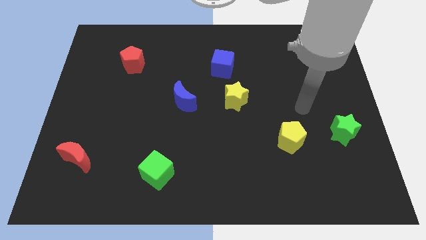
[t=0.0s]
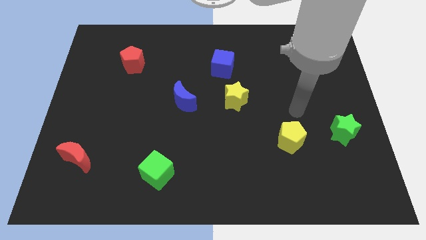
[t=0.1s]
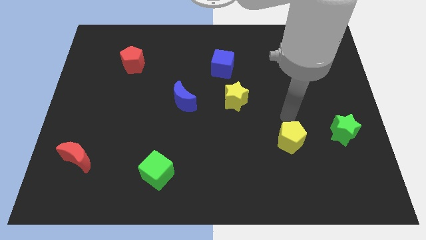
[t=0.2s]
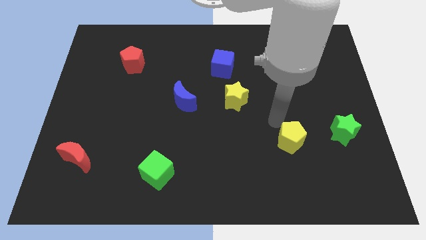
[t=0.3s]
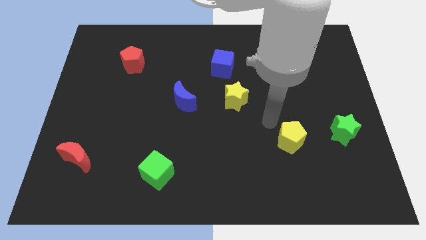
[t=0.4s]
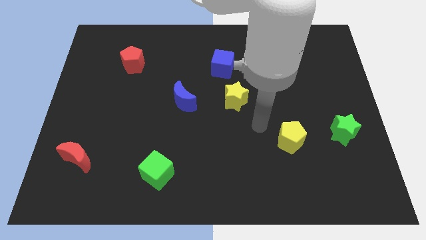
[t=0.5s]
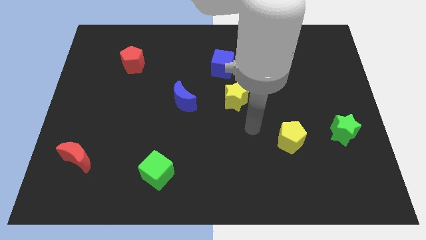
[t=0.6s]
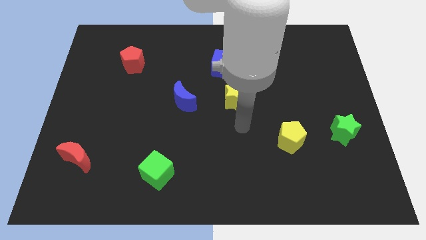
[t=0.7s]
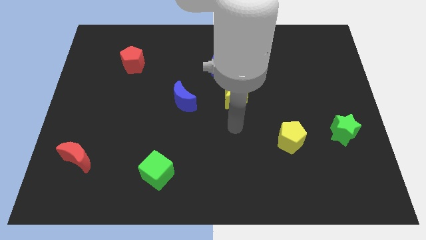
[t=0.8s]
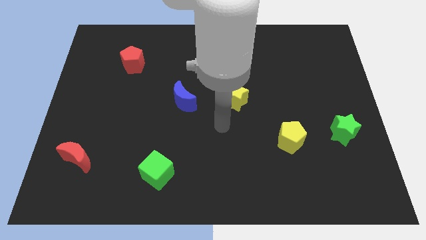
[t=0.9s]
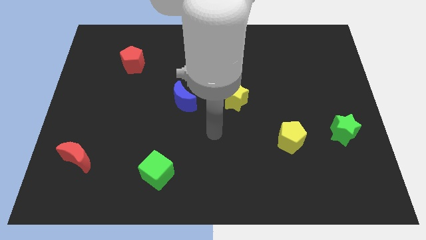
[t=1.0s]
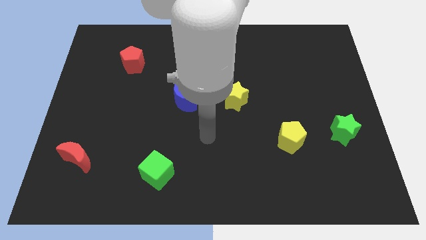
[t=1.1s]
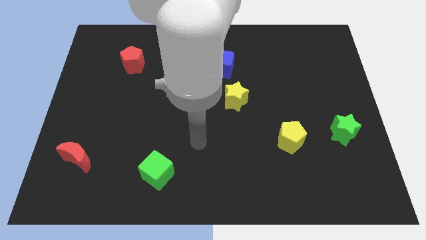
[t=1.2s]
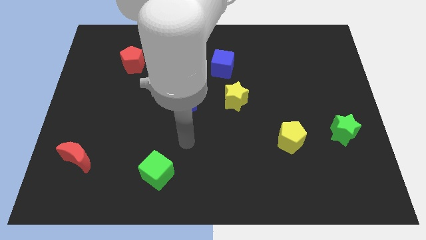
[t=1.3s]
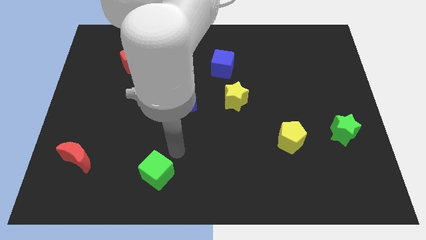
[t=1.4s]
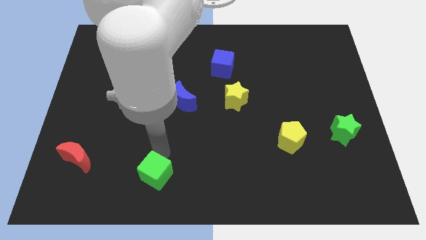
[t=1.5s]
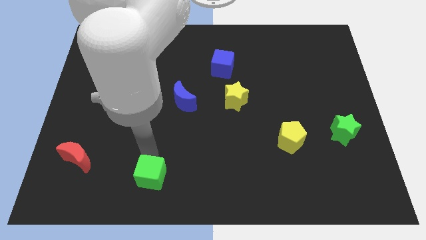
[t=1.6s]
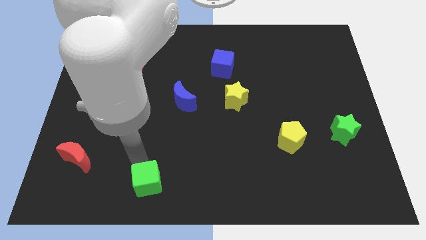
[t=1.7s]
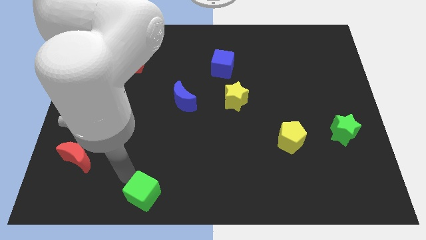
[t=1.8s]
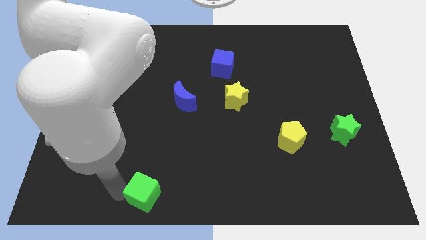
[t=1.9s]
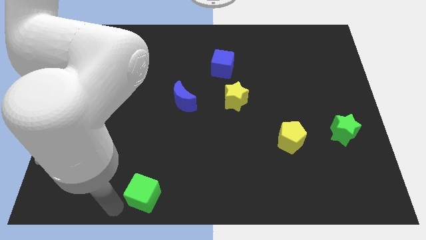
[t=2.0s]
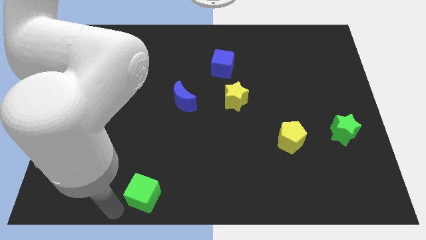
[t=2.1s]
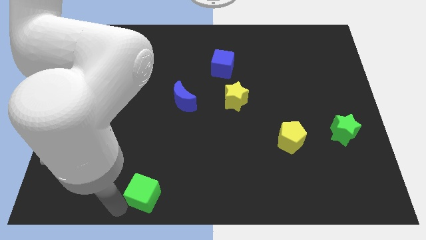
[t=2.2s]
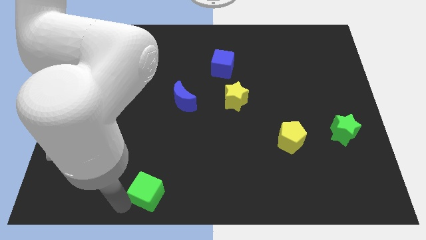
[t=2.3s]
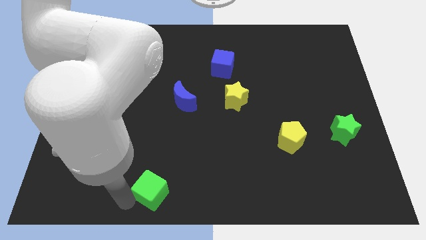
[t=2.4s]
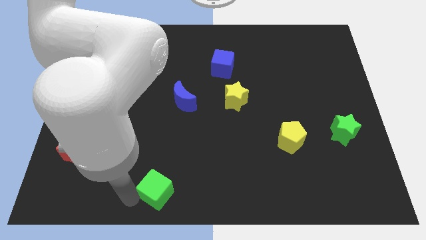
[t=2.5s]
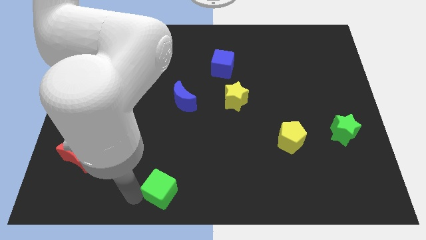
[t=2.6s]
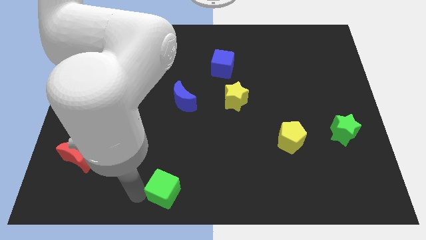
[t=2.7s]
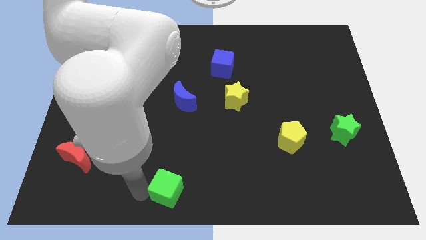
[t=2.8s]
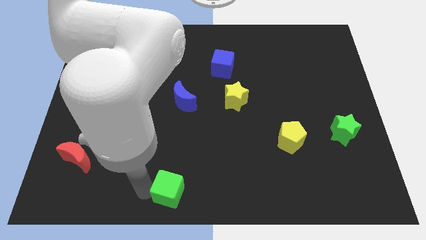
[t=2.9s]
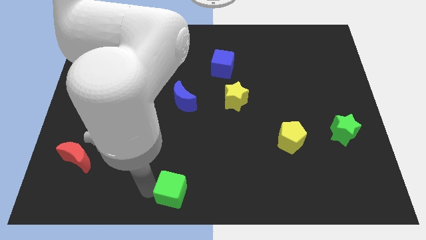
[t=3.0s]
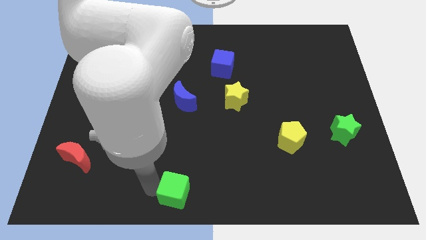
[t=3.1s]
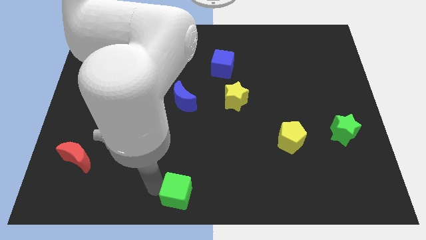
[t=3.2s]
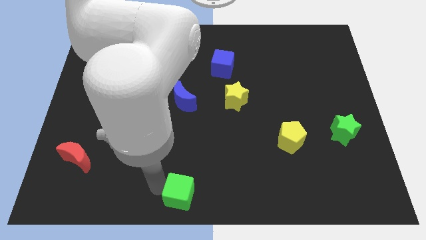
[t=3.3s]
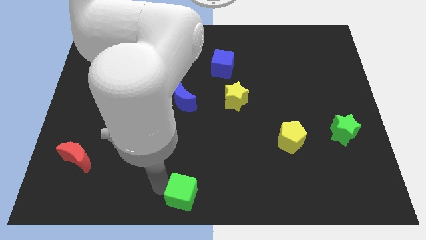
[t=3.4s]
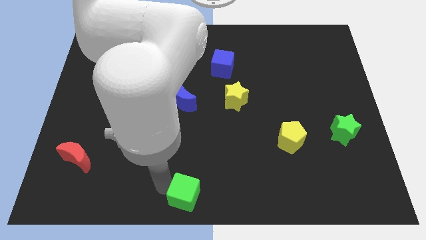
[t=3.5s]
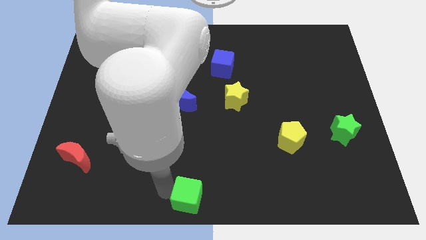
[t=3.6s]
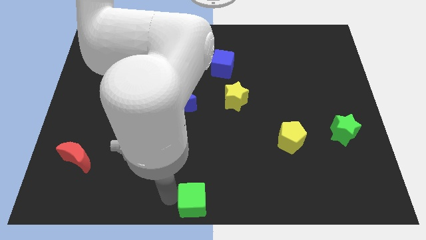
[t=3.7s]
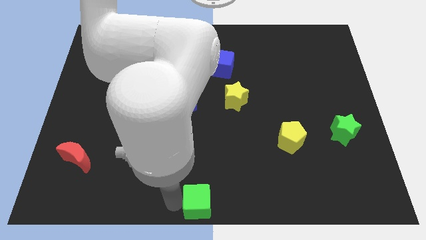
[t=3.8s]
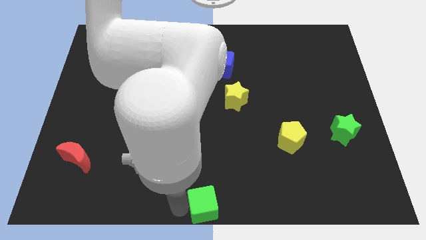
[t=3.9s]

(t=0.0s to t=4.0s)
push the green cube right slightly

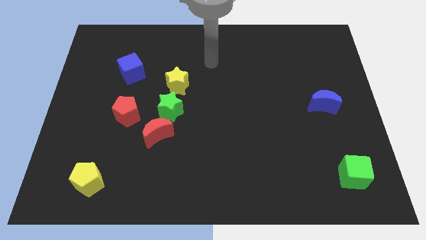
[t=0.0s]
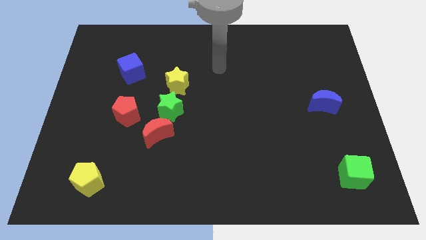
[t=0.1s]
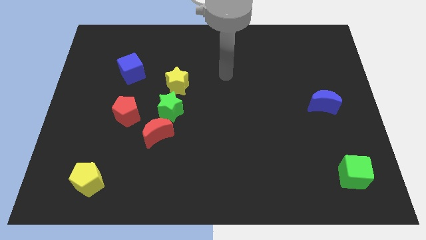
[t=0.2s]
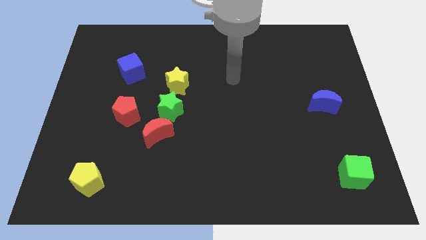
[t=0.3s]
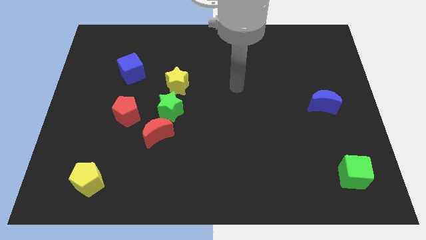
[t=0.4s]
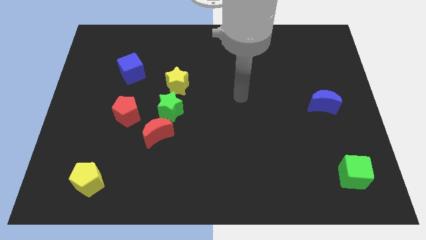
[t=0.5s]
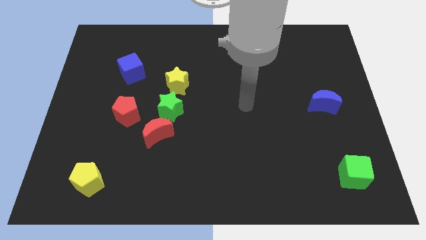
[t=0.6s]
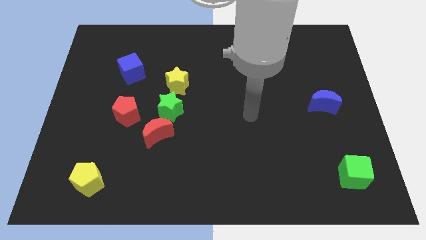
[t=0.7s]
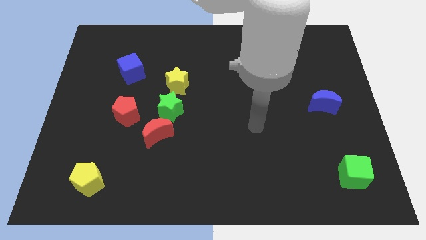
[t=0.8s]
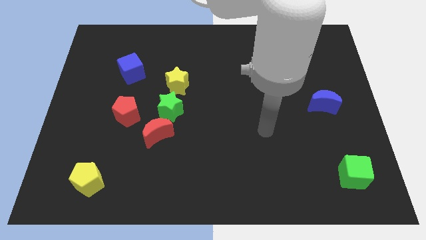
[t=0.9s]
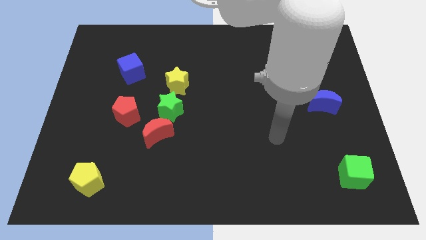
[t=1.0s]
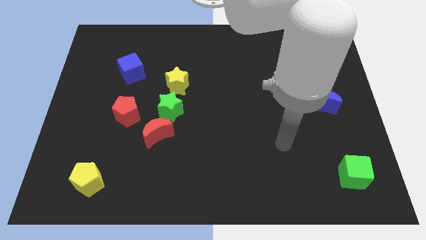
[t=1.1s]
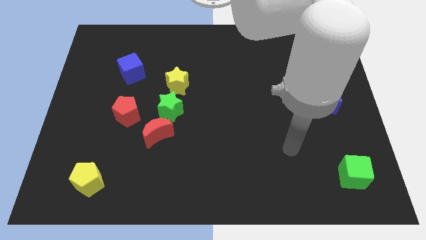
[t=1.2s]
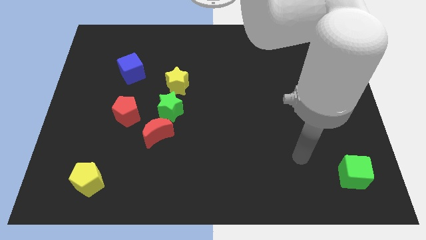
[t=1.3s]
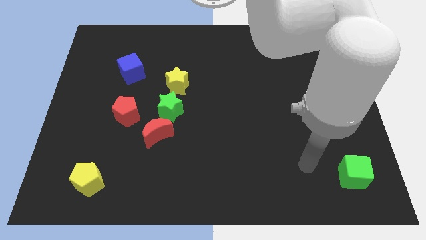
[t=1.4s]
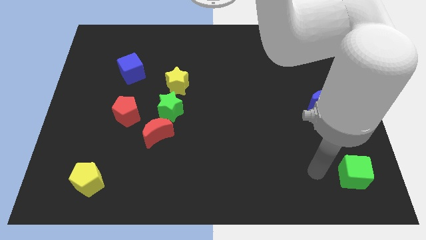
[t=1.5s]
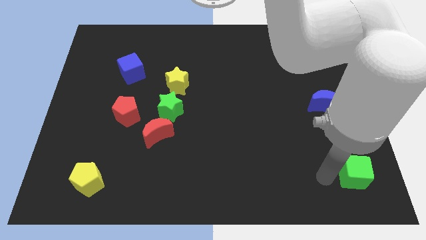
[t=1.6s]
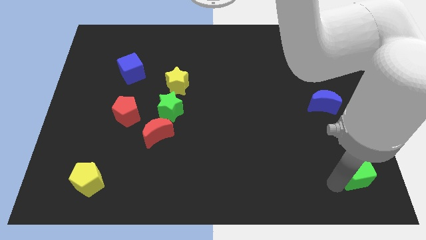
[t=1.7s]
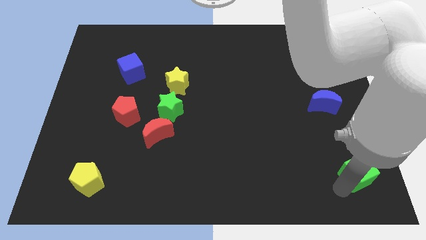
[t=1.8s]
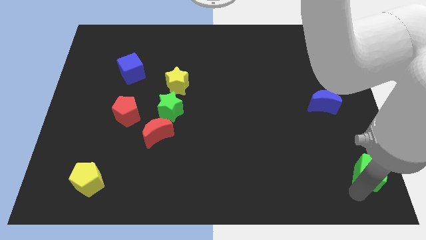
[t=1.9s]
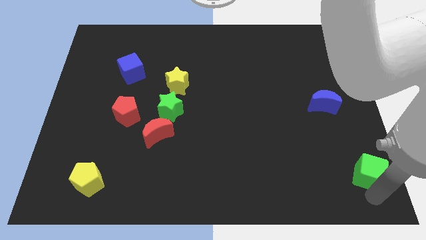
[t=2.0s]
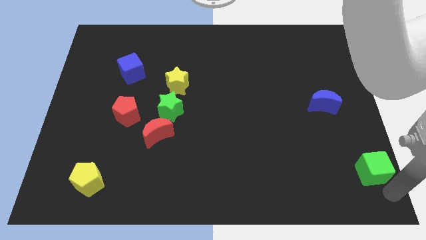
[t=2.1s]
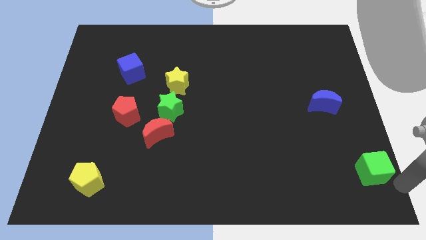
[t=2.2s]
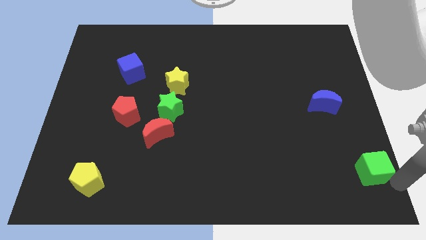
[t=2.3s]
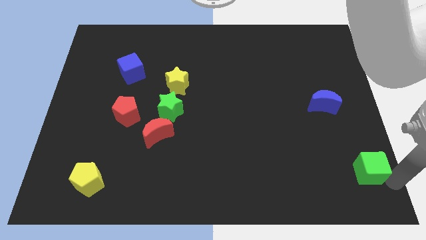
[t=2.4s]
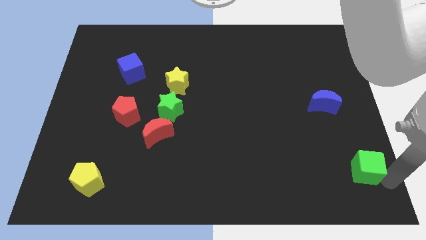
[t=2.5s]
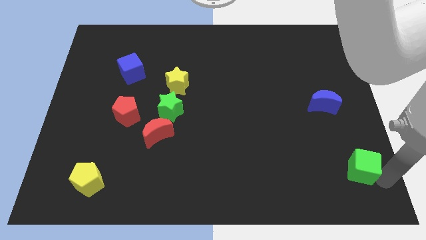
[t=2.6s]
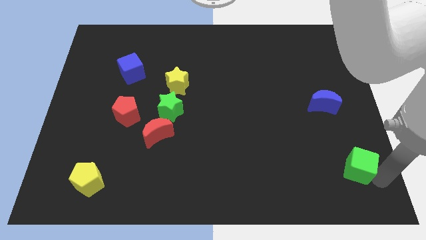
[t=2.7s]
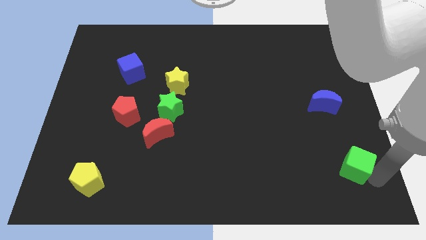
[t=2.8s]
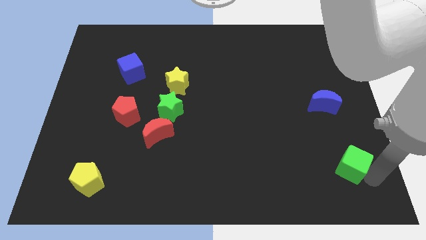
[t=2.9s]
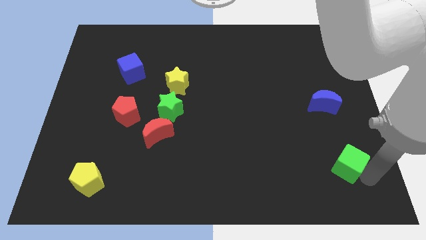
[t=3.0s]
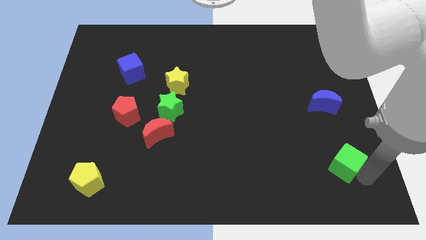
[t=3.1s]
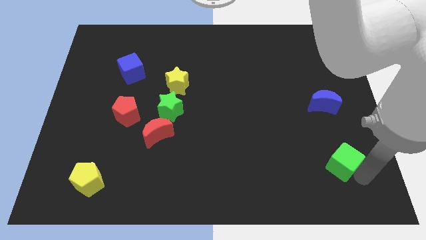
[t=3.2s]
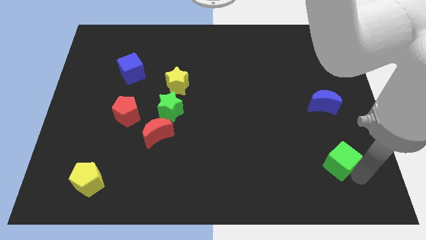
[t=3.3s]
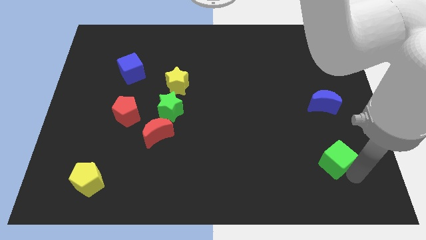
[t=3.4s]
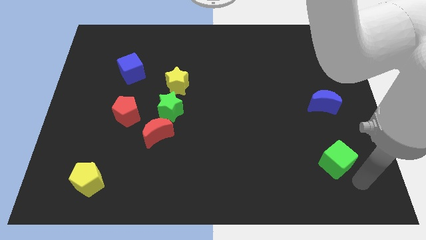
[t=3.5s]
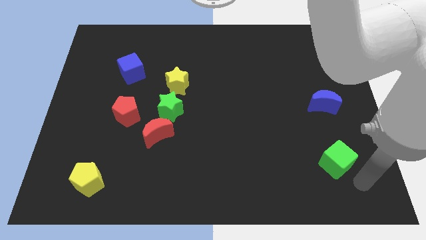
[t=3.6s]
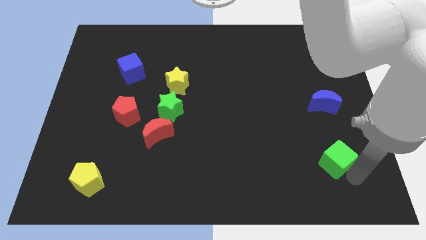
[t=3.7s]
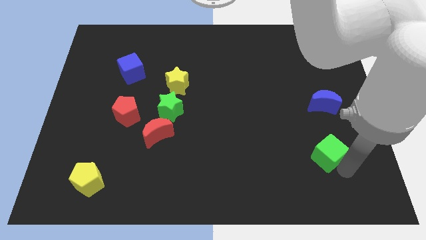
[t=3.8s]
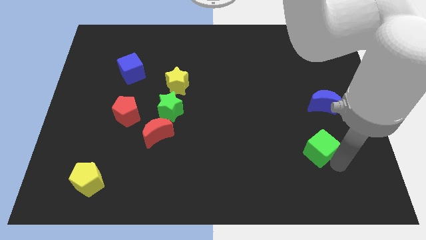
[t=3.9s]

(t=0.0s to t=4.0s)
slightly move the green cube up and left
